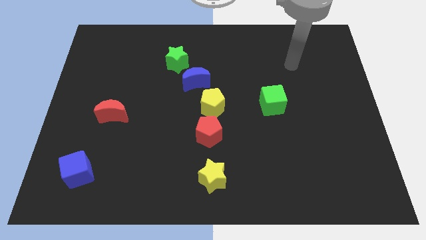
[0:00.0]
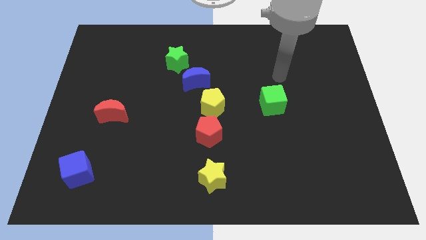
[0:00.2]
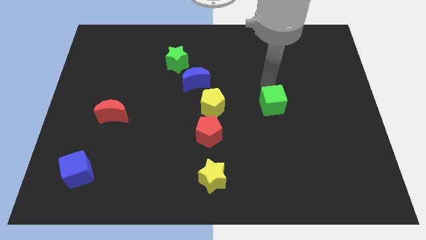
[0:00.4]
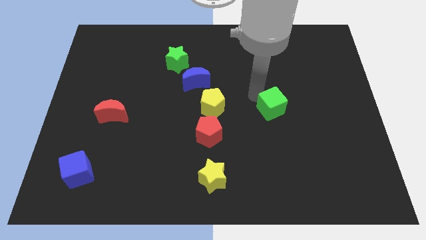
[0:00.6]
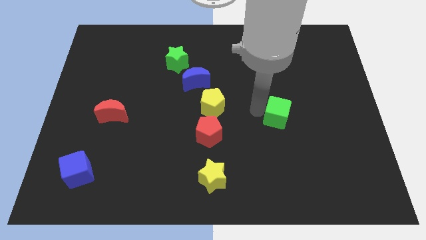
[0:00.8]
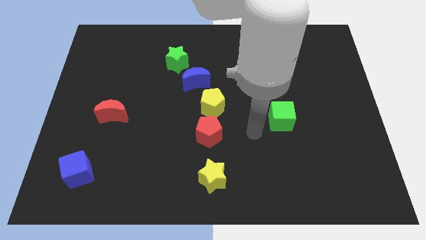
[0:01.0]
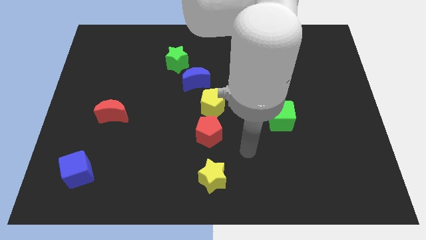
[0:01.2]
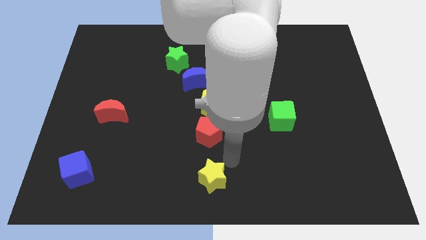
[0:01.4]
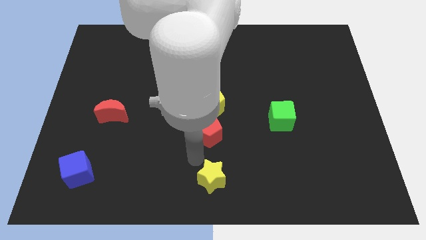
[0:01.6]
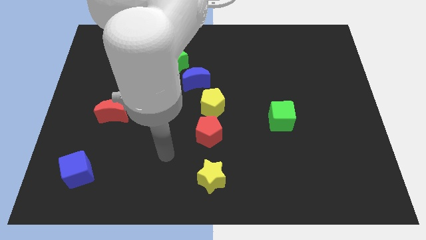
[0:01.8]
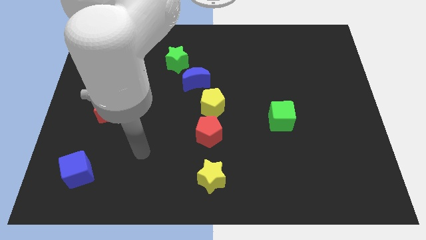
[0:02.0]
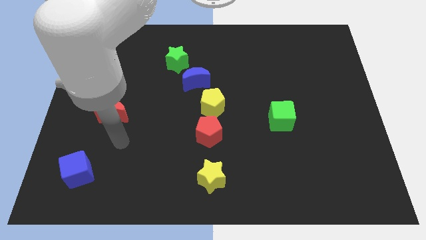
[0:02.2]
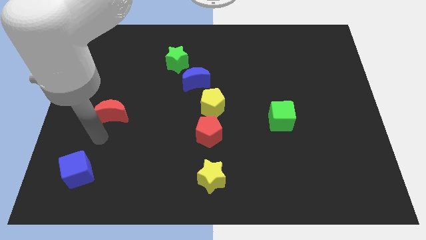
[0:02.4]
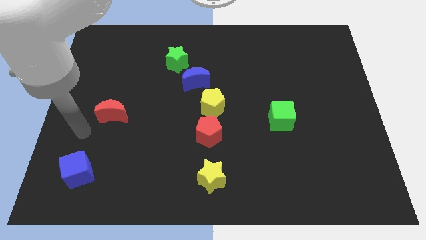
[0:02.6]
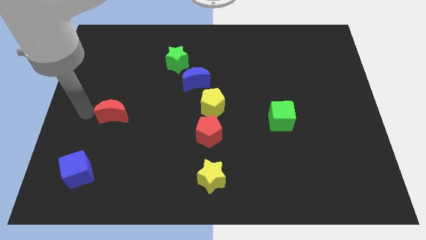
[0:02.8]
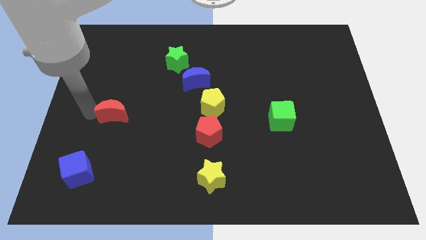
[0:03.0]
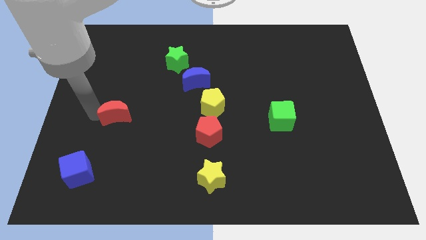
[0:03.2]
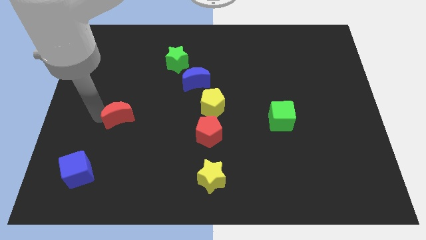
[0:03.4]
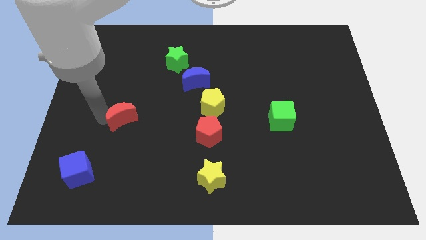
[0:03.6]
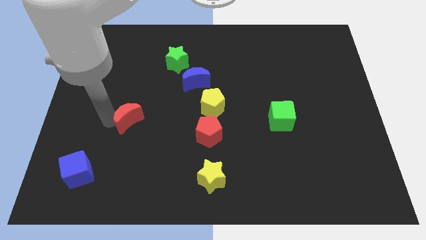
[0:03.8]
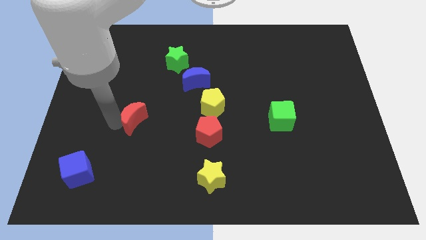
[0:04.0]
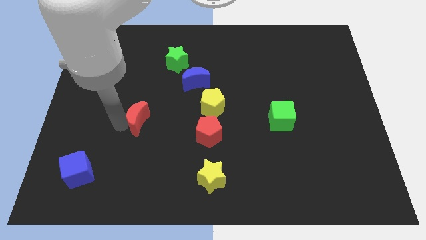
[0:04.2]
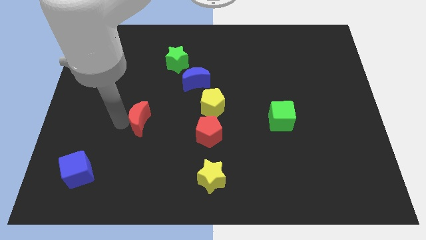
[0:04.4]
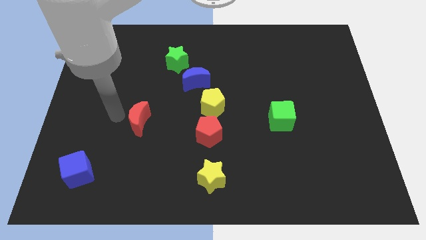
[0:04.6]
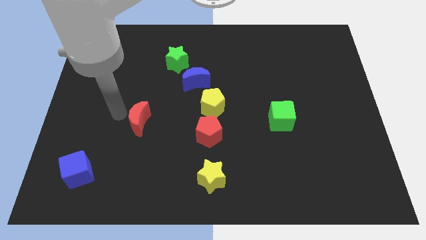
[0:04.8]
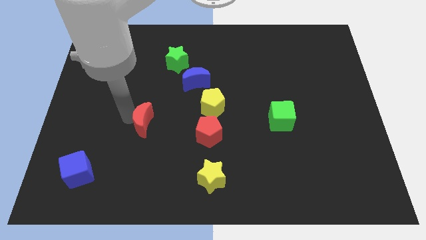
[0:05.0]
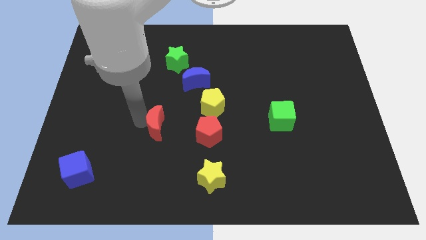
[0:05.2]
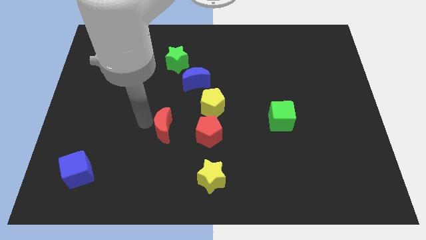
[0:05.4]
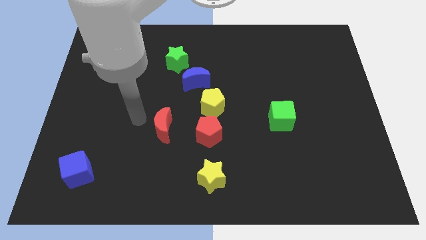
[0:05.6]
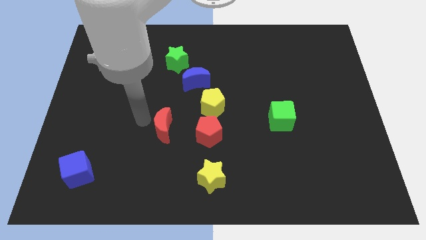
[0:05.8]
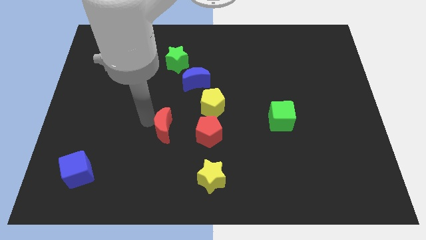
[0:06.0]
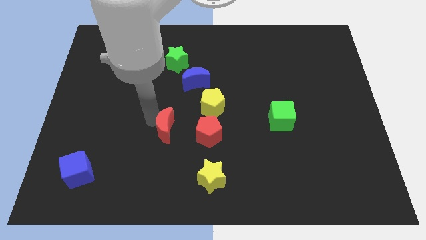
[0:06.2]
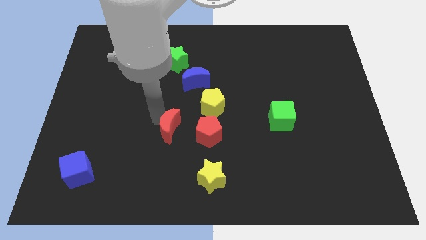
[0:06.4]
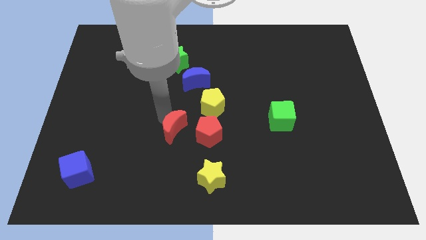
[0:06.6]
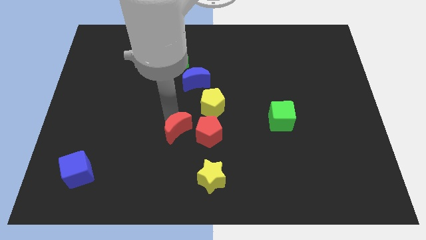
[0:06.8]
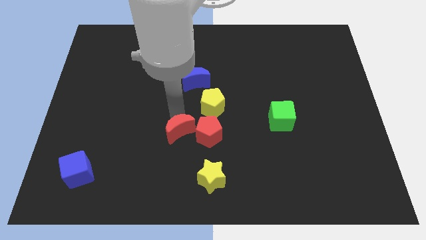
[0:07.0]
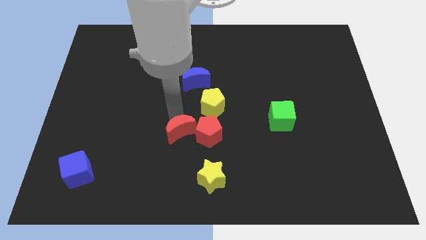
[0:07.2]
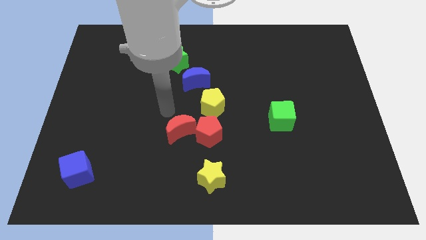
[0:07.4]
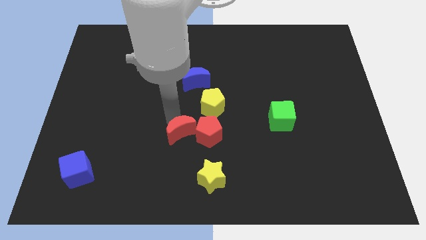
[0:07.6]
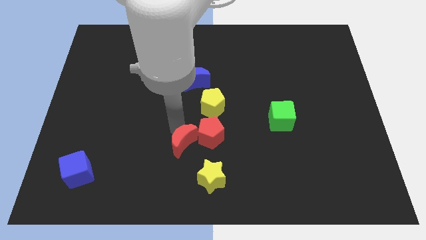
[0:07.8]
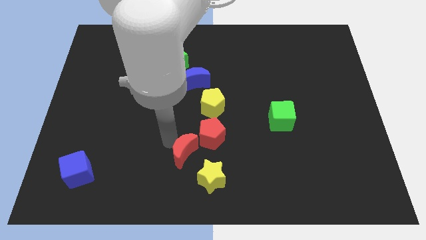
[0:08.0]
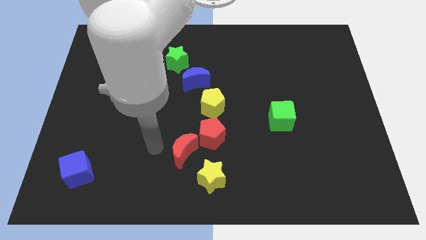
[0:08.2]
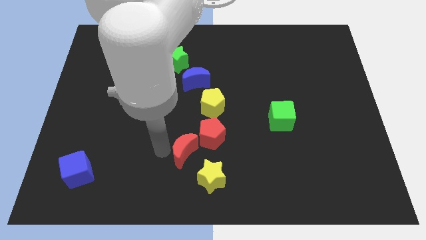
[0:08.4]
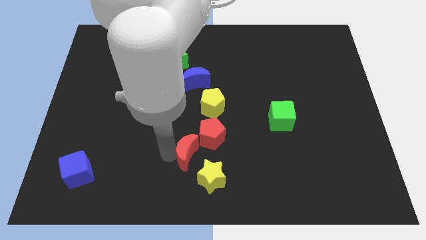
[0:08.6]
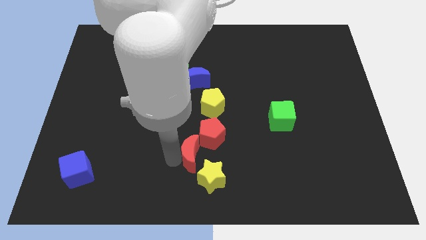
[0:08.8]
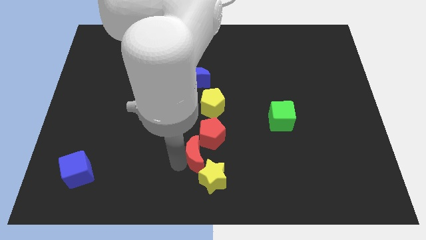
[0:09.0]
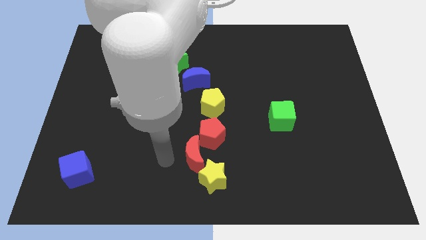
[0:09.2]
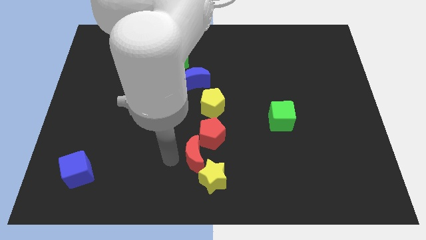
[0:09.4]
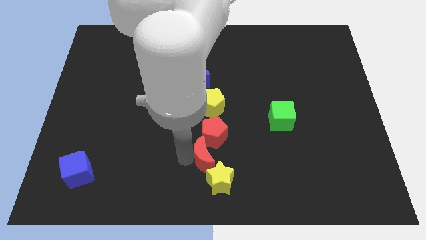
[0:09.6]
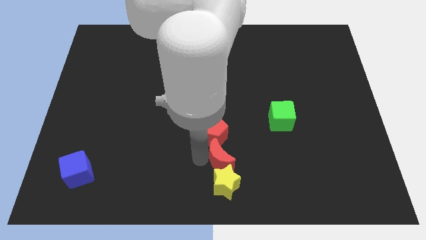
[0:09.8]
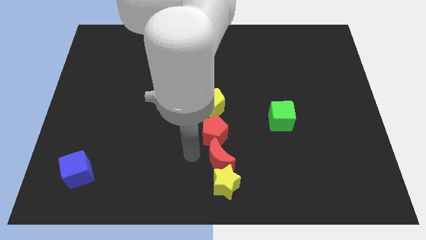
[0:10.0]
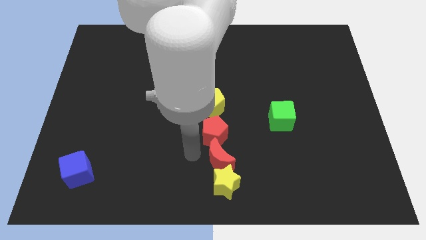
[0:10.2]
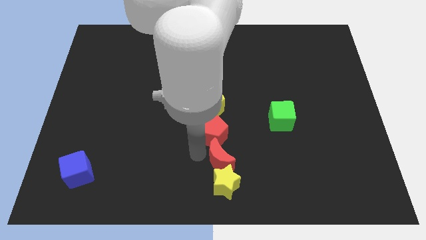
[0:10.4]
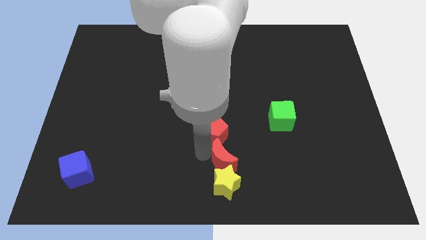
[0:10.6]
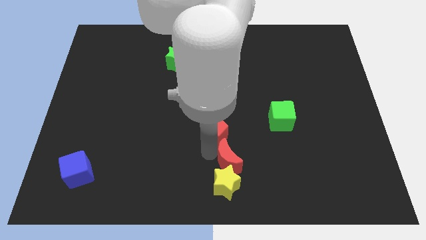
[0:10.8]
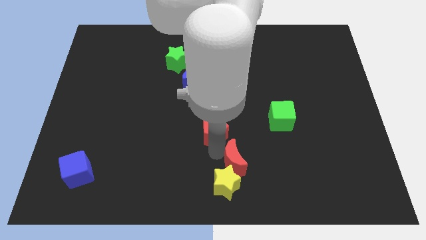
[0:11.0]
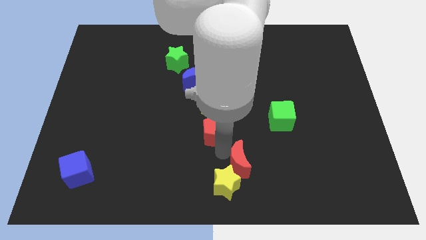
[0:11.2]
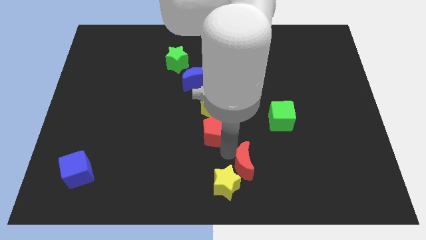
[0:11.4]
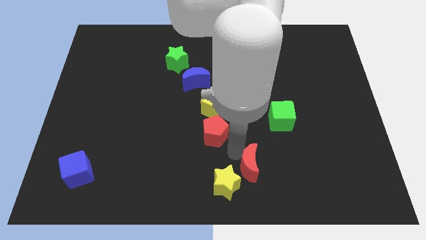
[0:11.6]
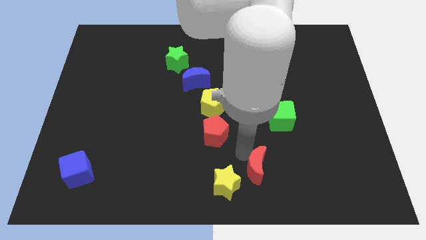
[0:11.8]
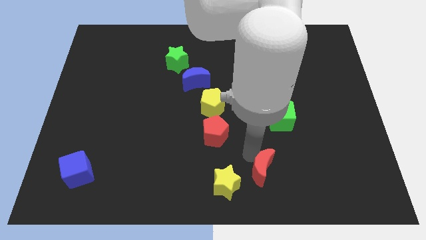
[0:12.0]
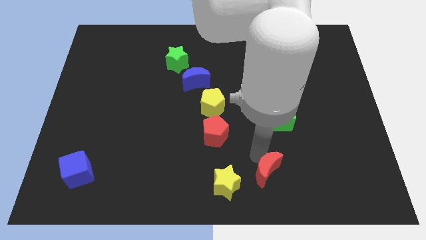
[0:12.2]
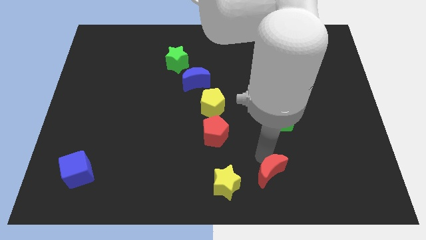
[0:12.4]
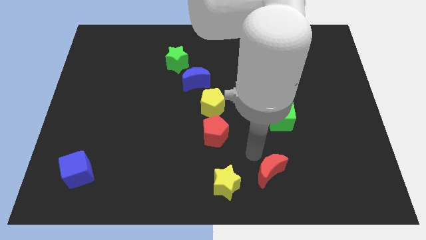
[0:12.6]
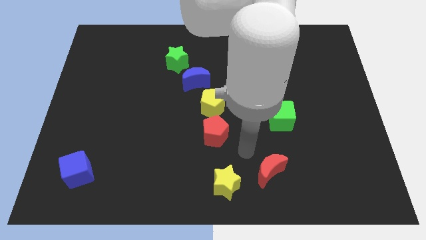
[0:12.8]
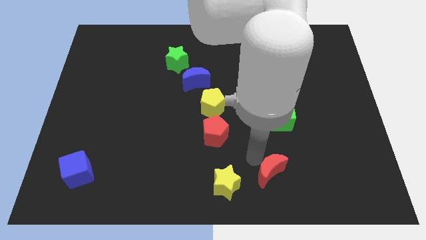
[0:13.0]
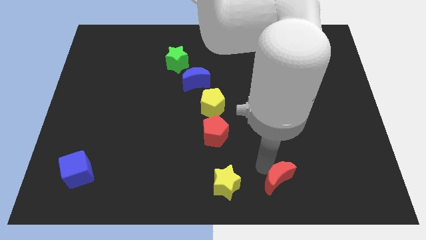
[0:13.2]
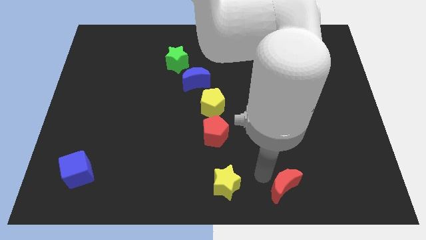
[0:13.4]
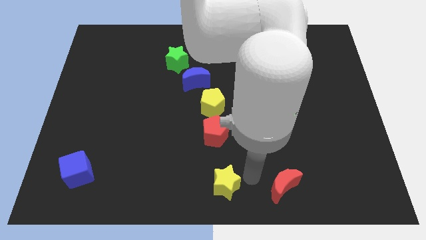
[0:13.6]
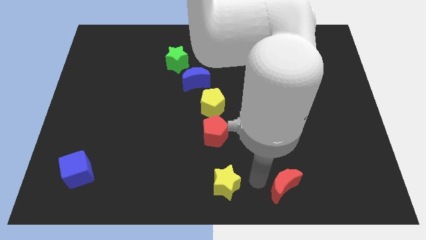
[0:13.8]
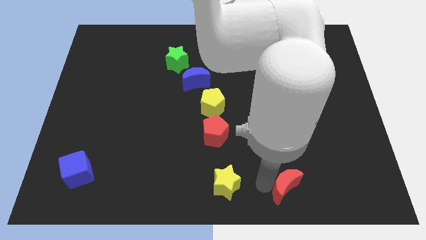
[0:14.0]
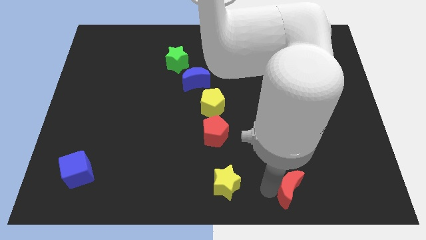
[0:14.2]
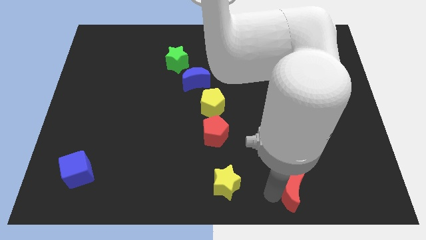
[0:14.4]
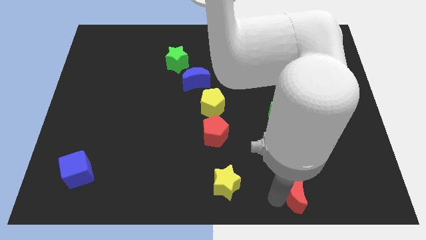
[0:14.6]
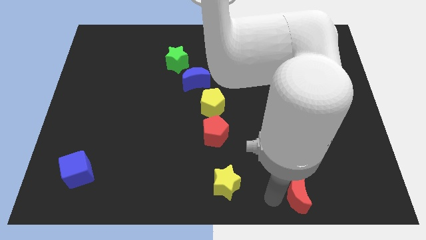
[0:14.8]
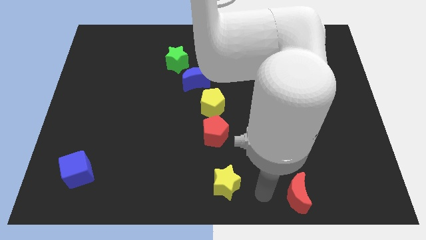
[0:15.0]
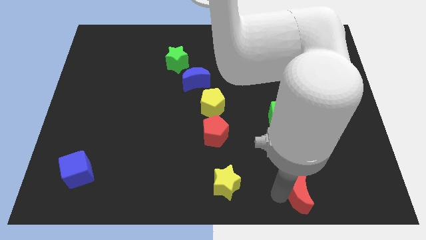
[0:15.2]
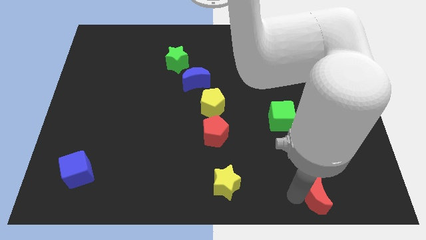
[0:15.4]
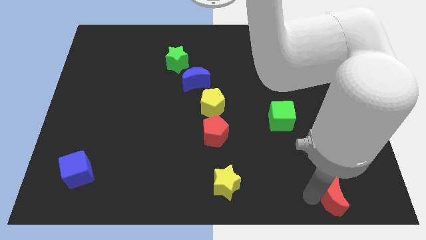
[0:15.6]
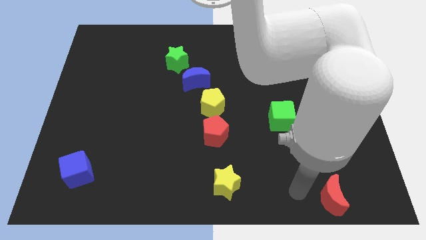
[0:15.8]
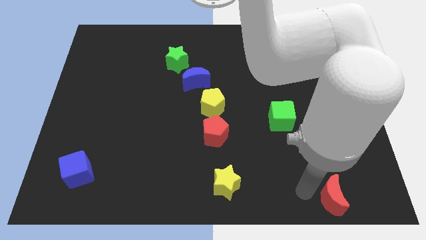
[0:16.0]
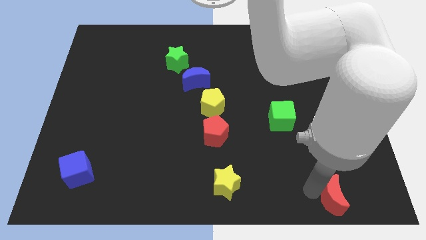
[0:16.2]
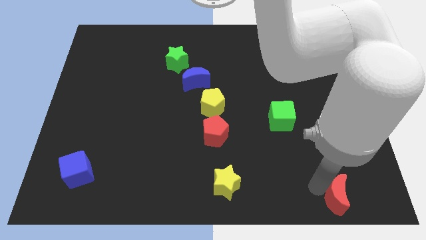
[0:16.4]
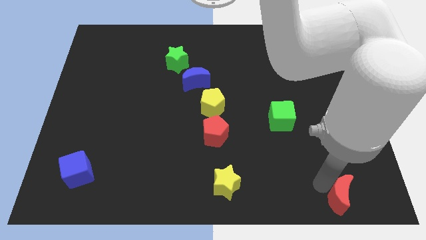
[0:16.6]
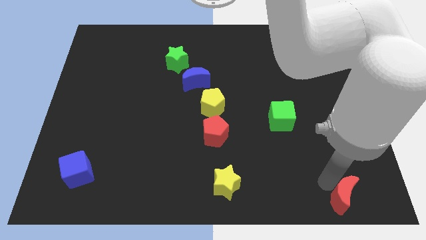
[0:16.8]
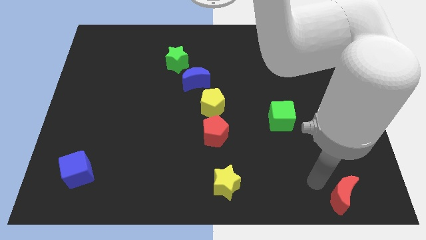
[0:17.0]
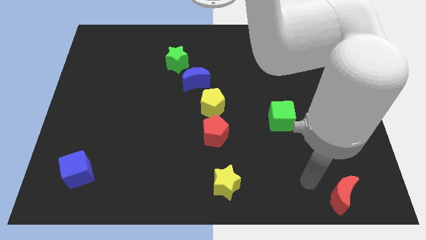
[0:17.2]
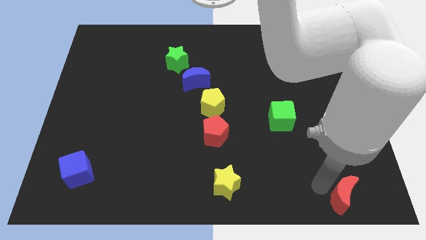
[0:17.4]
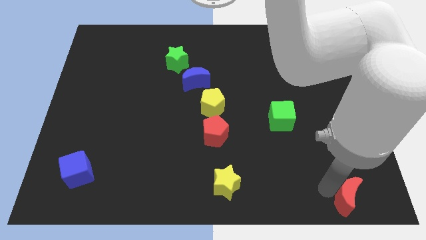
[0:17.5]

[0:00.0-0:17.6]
push the red moon to the bottom right of the board
